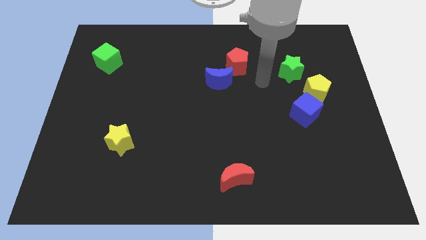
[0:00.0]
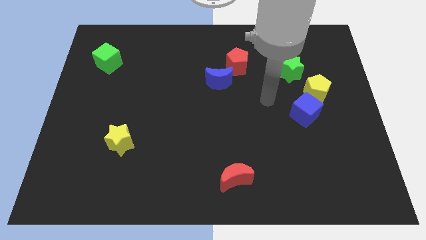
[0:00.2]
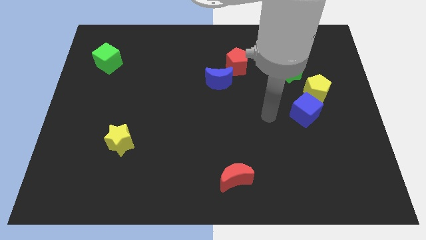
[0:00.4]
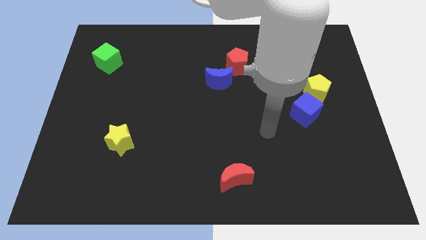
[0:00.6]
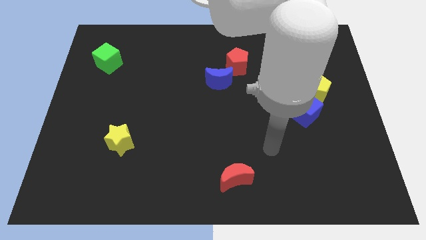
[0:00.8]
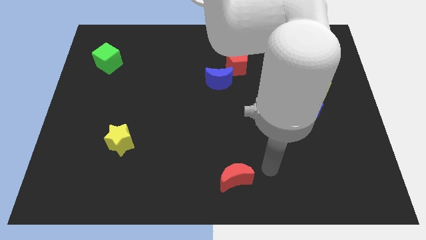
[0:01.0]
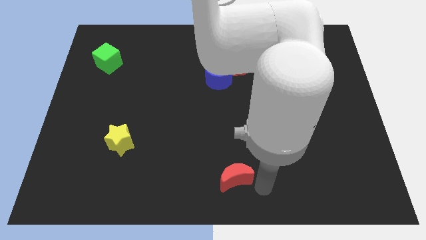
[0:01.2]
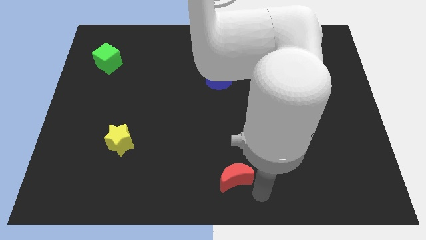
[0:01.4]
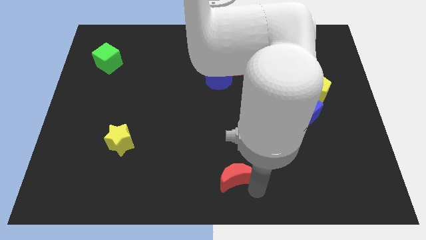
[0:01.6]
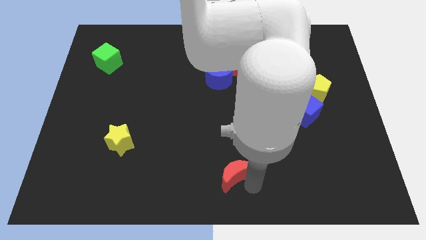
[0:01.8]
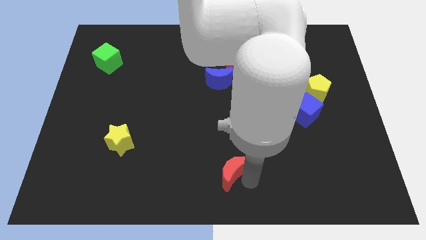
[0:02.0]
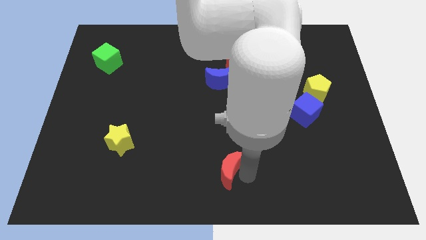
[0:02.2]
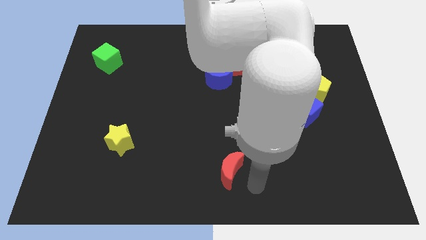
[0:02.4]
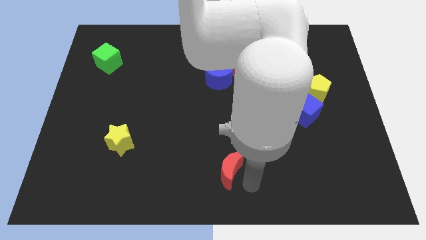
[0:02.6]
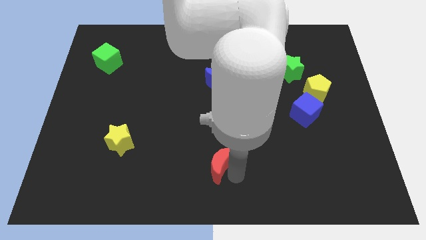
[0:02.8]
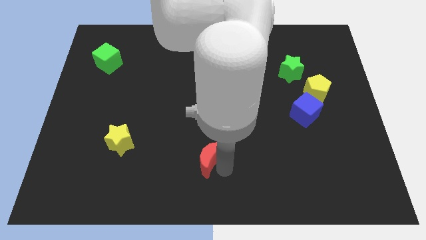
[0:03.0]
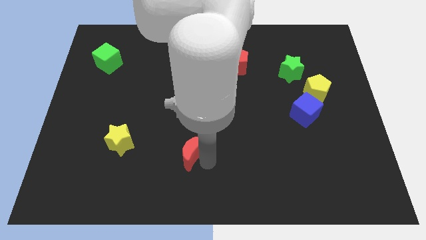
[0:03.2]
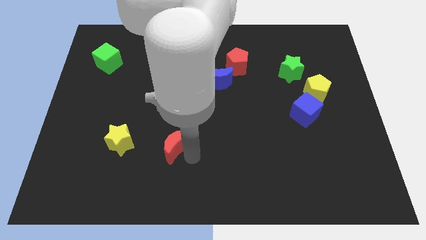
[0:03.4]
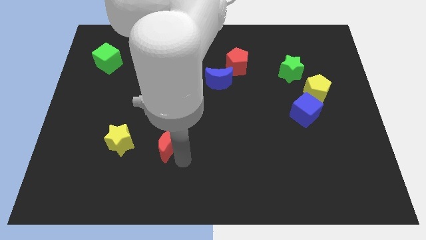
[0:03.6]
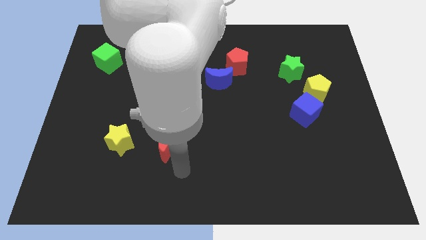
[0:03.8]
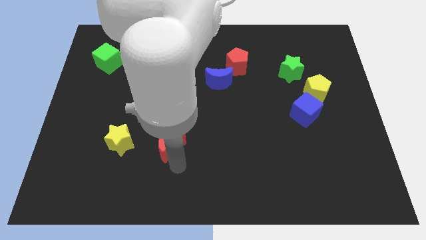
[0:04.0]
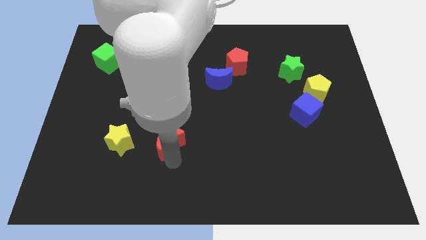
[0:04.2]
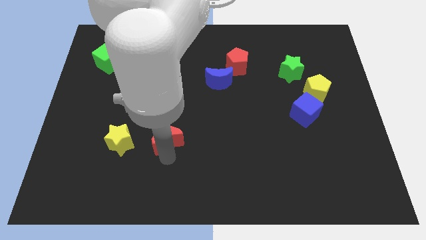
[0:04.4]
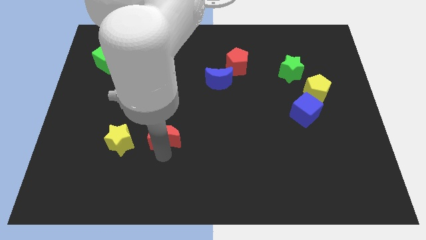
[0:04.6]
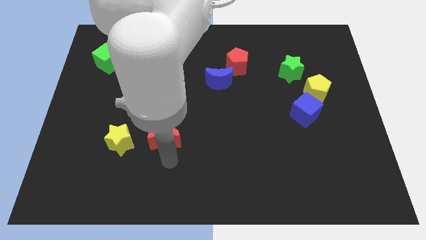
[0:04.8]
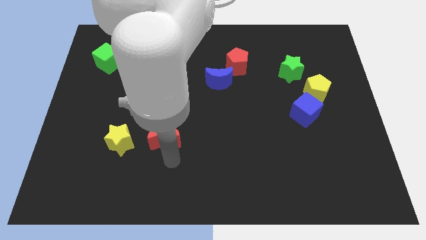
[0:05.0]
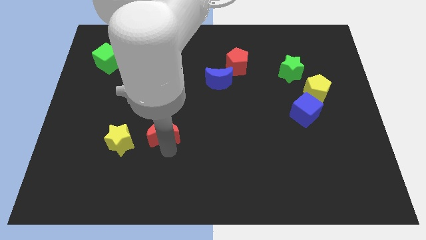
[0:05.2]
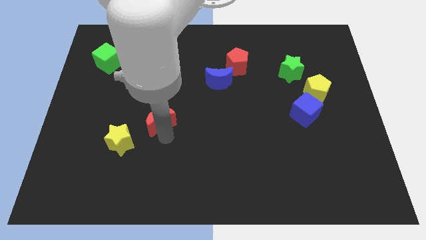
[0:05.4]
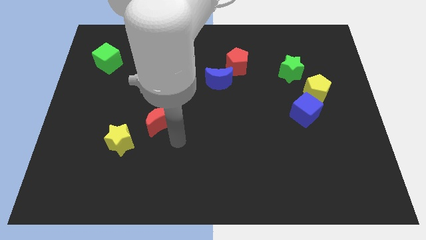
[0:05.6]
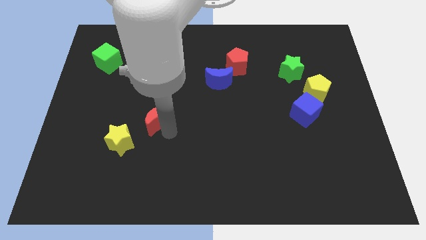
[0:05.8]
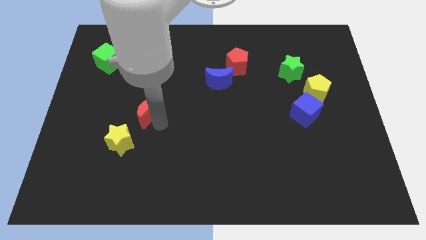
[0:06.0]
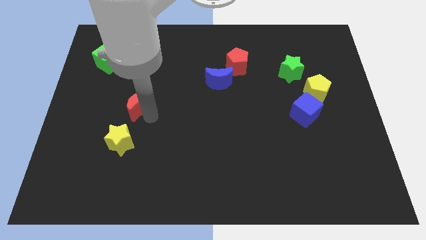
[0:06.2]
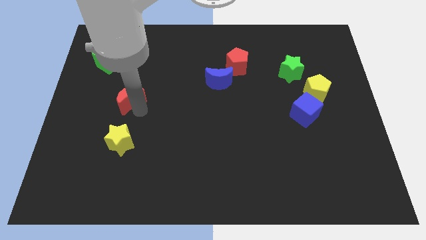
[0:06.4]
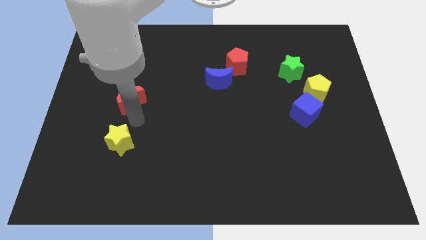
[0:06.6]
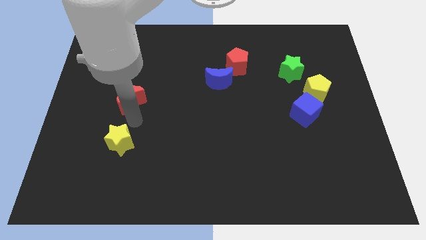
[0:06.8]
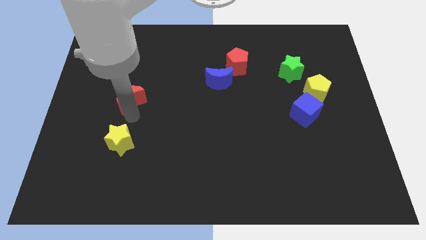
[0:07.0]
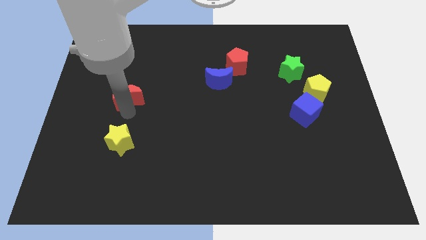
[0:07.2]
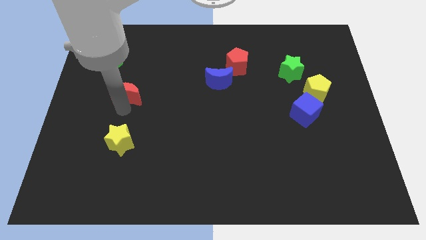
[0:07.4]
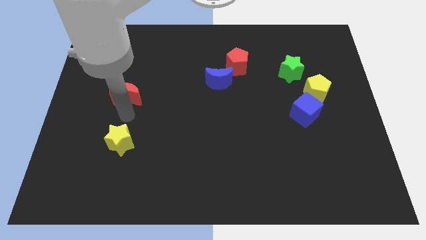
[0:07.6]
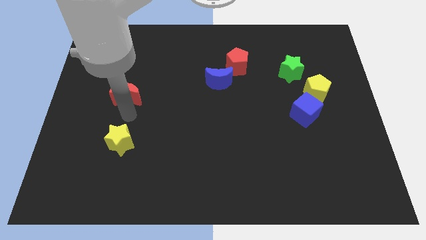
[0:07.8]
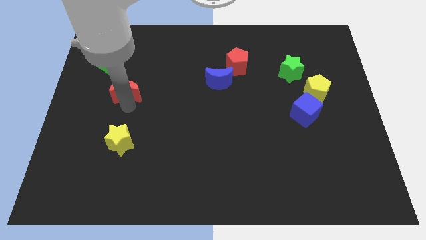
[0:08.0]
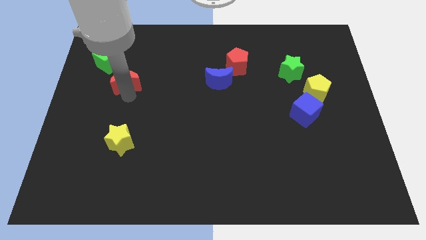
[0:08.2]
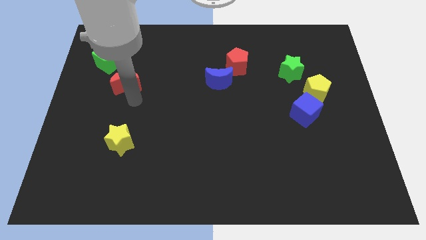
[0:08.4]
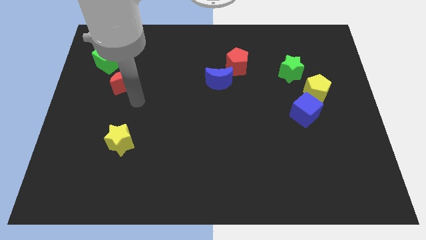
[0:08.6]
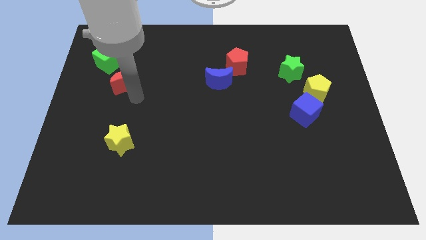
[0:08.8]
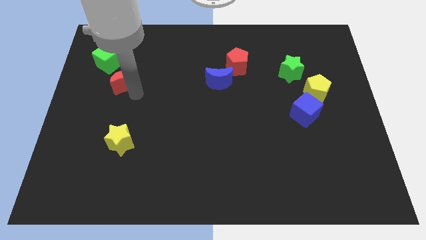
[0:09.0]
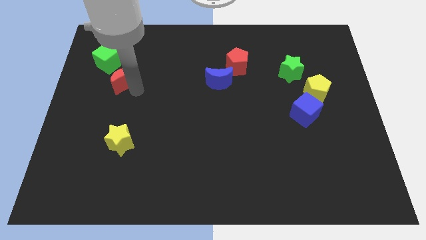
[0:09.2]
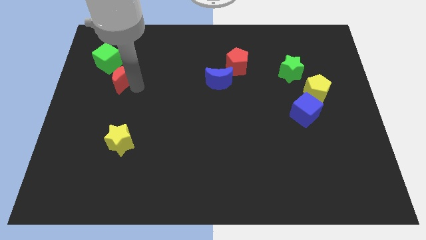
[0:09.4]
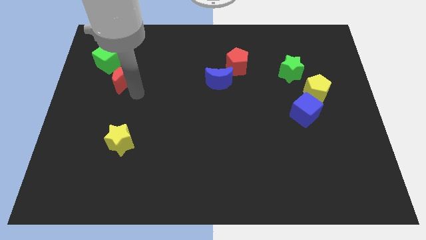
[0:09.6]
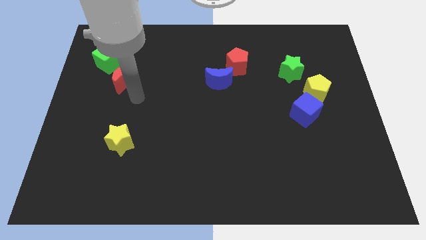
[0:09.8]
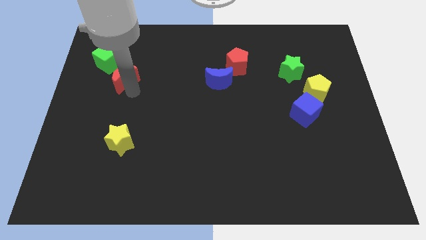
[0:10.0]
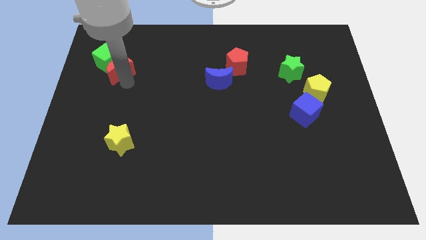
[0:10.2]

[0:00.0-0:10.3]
slide the red moon to the green cube

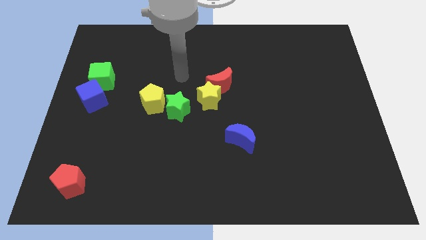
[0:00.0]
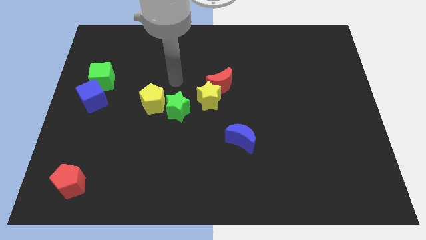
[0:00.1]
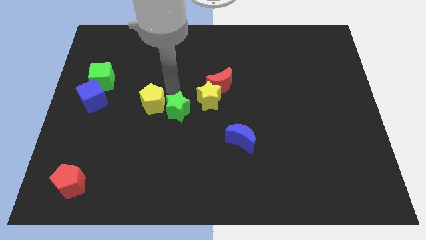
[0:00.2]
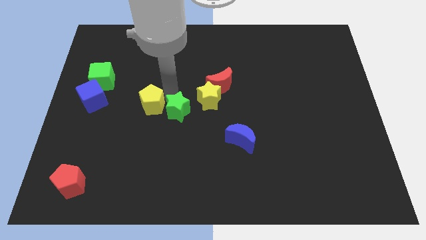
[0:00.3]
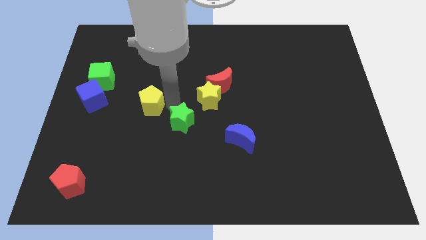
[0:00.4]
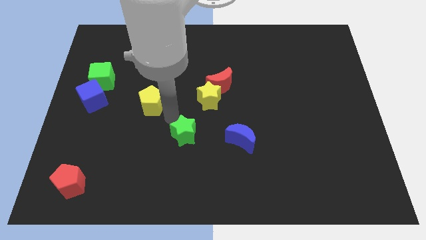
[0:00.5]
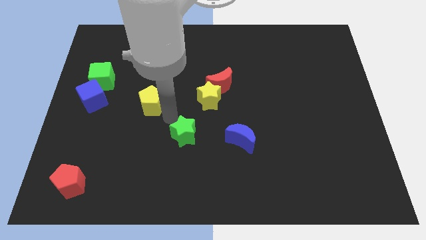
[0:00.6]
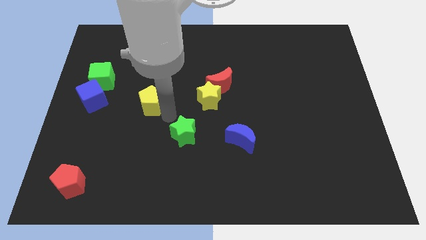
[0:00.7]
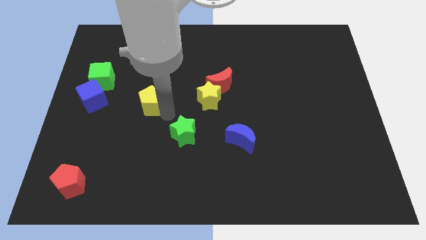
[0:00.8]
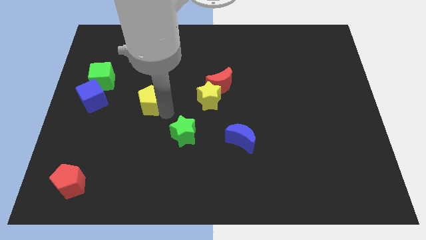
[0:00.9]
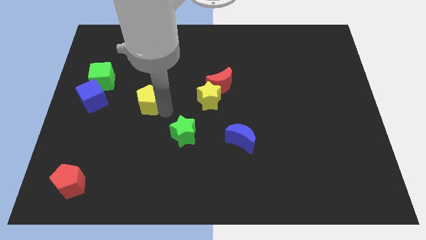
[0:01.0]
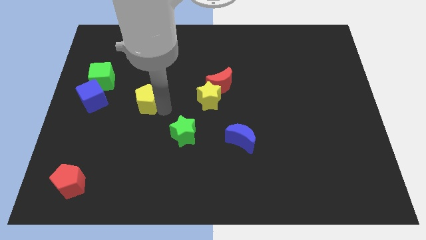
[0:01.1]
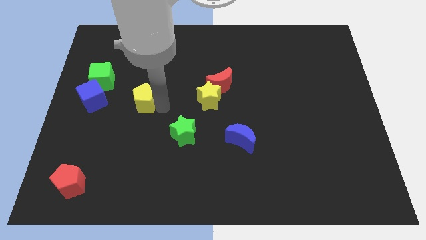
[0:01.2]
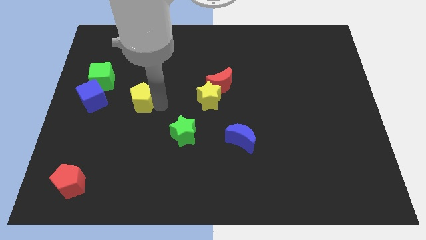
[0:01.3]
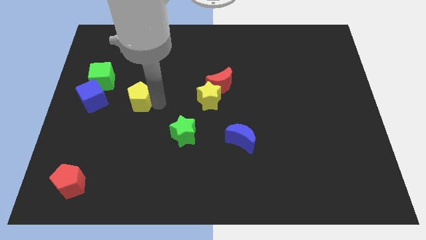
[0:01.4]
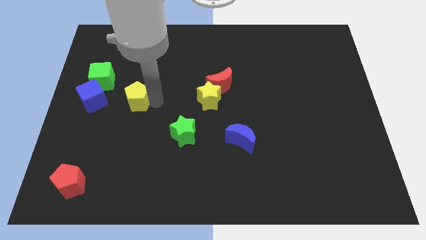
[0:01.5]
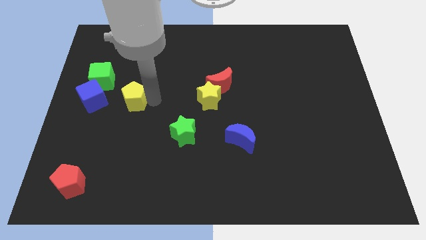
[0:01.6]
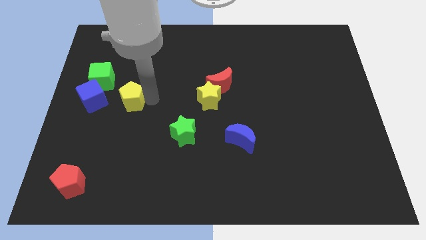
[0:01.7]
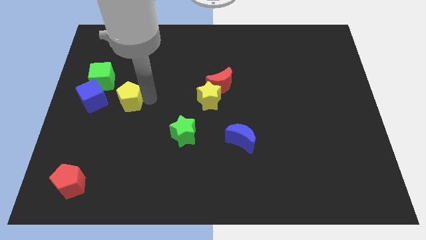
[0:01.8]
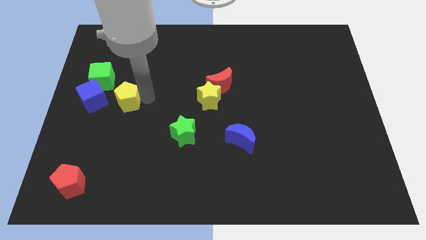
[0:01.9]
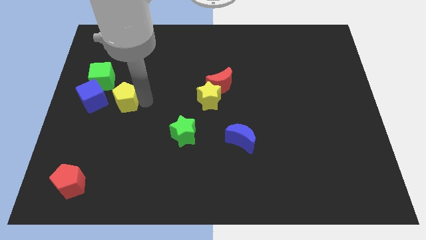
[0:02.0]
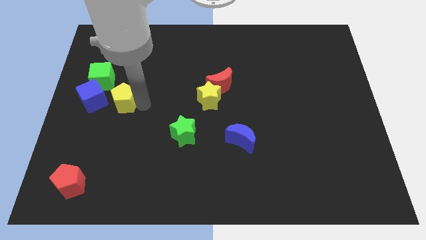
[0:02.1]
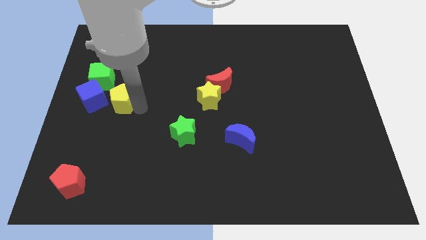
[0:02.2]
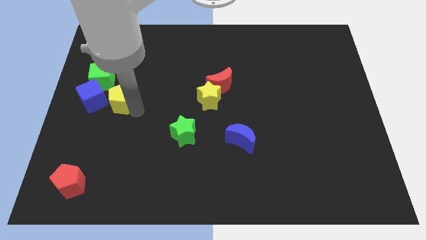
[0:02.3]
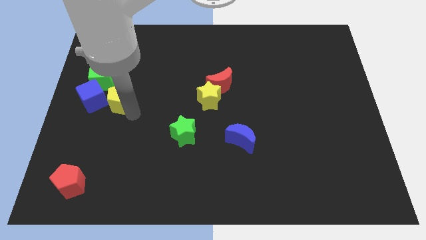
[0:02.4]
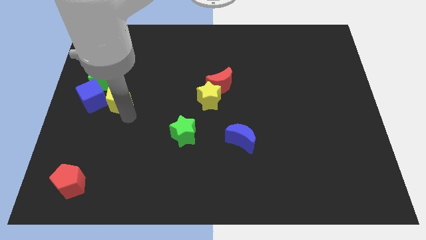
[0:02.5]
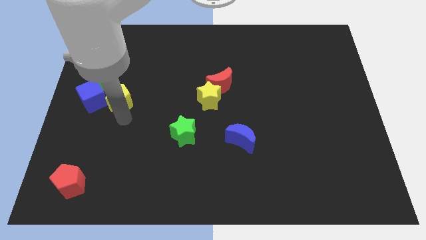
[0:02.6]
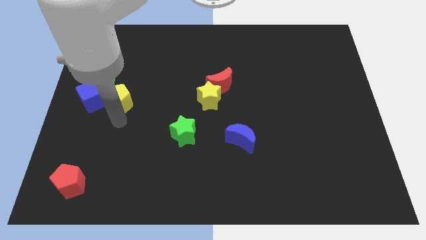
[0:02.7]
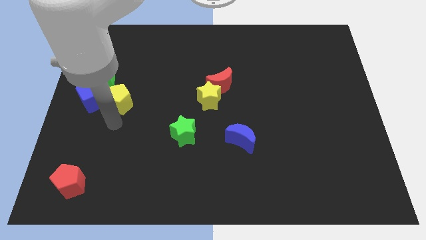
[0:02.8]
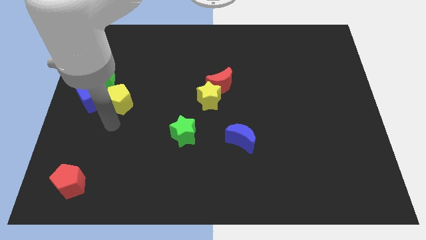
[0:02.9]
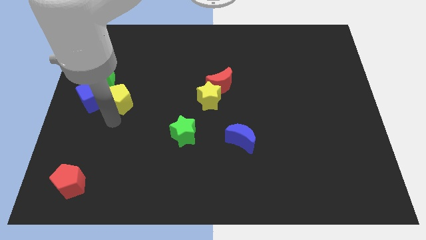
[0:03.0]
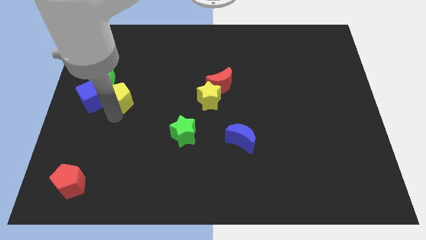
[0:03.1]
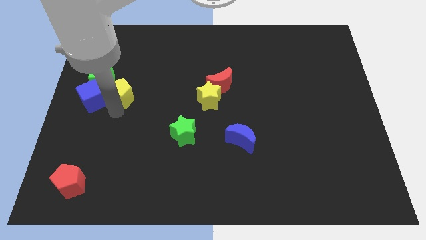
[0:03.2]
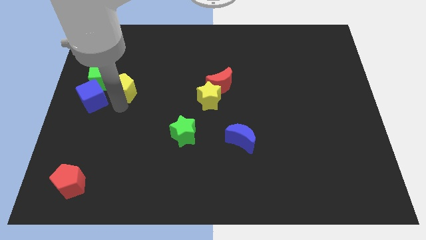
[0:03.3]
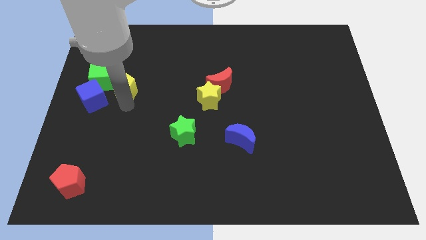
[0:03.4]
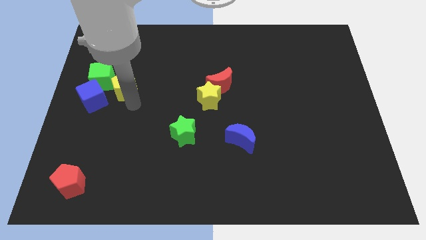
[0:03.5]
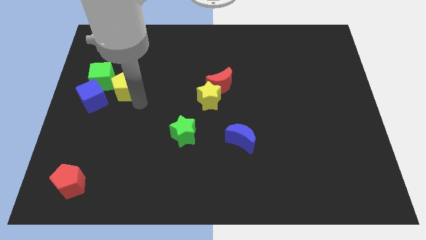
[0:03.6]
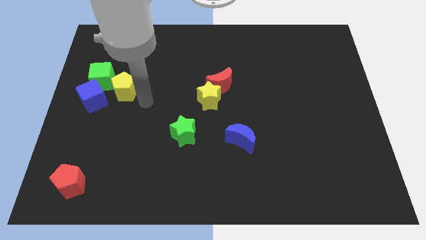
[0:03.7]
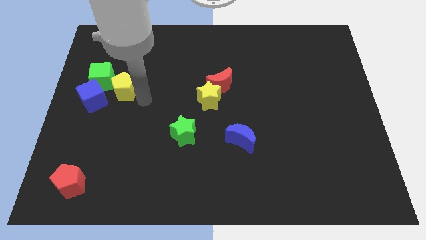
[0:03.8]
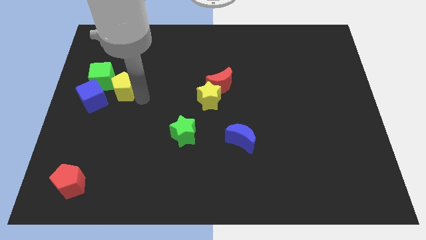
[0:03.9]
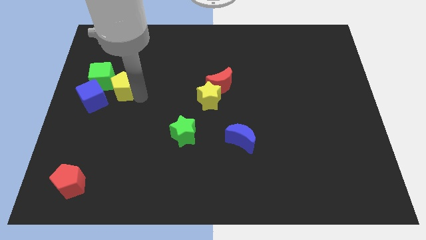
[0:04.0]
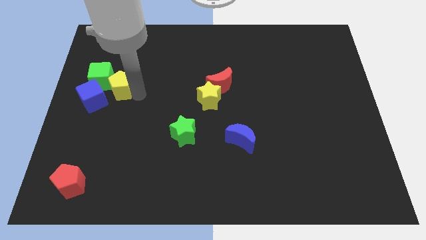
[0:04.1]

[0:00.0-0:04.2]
put the yellow pentagon towards the green cube
